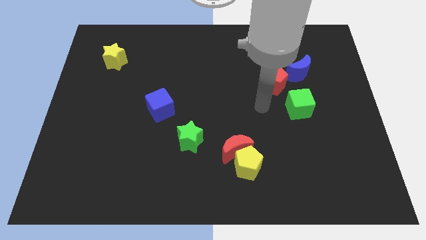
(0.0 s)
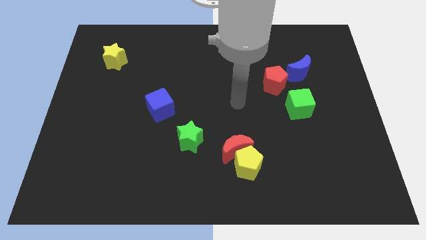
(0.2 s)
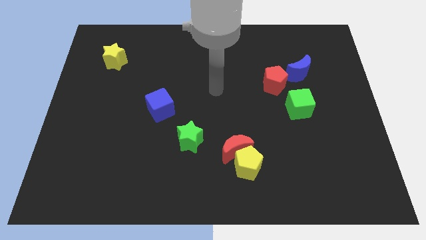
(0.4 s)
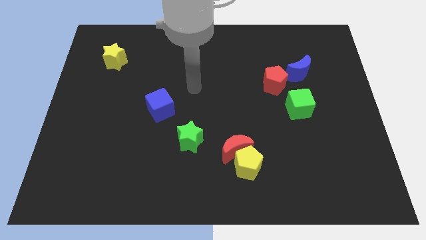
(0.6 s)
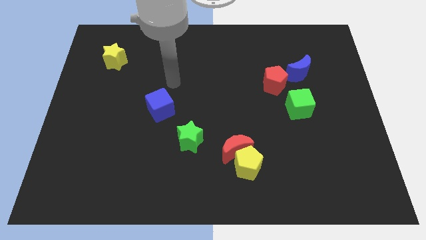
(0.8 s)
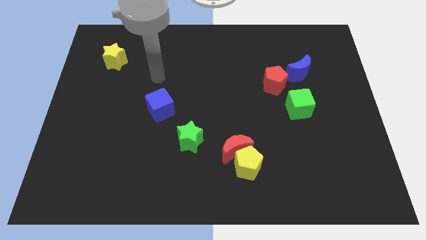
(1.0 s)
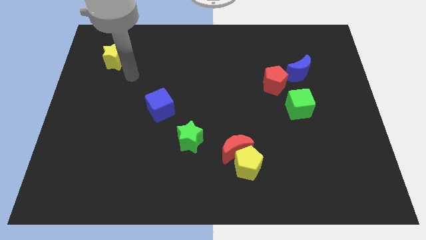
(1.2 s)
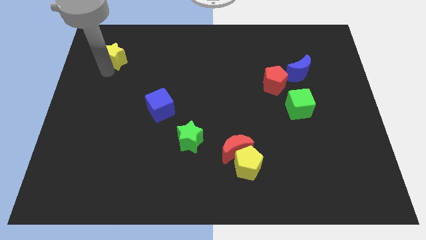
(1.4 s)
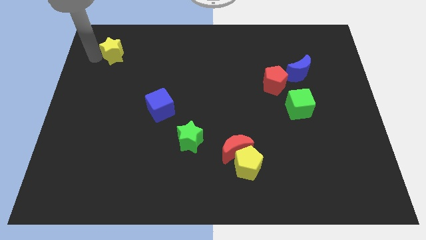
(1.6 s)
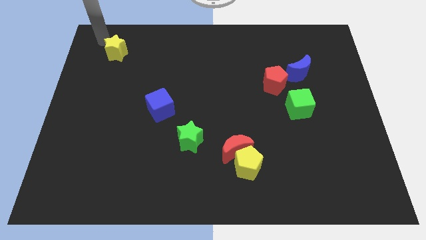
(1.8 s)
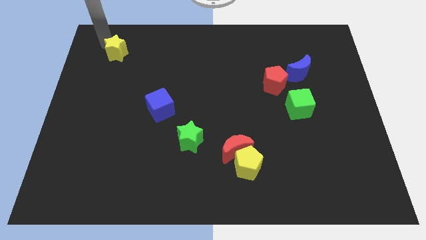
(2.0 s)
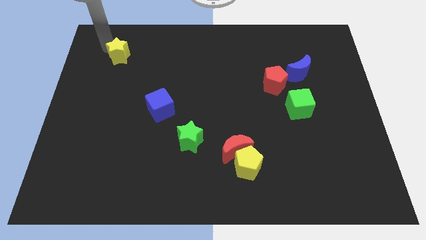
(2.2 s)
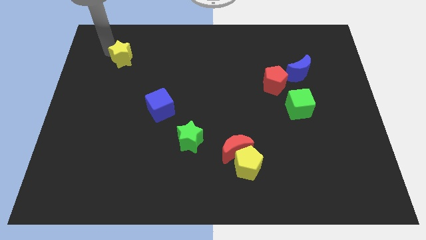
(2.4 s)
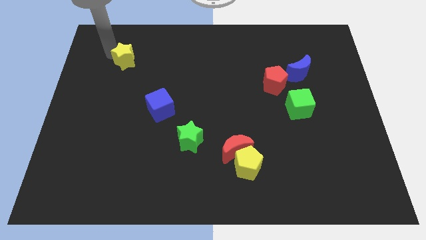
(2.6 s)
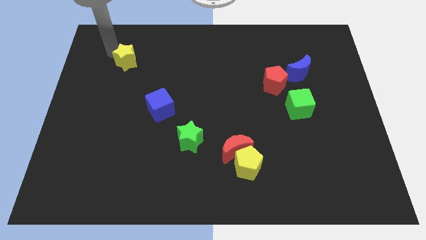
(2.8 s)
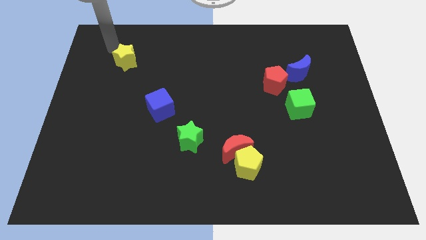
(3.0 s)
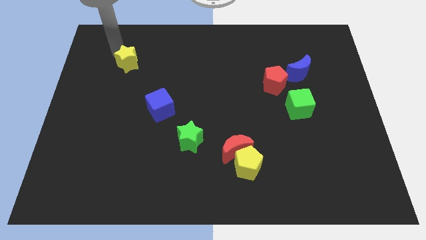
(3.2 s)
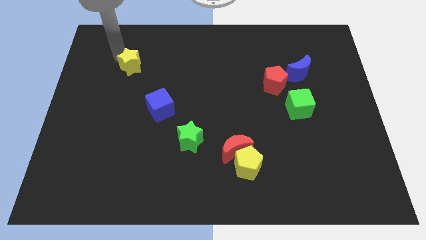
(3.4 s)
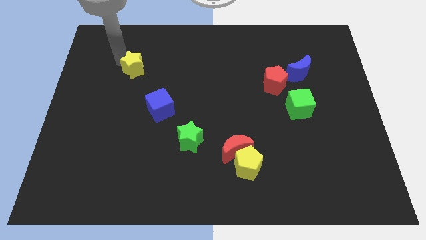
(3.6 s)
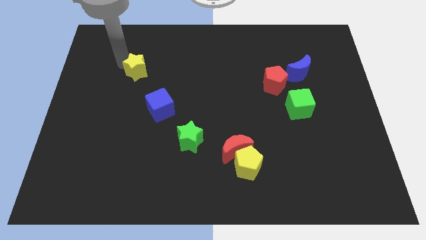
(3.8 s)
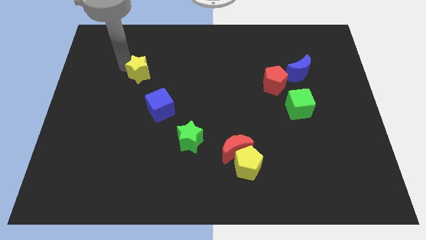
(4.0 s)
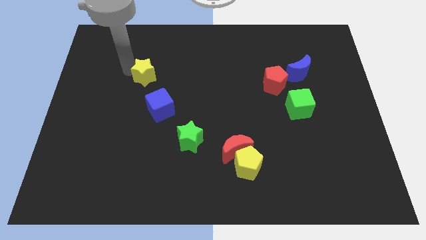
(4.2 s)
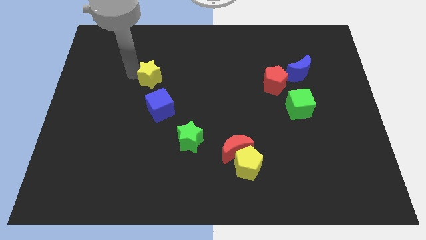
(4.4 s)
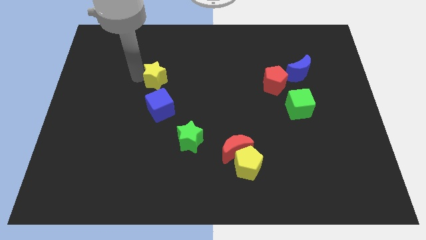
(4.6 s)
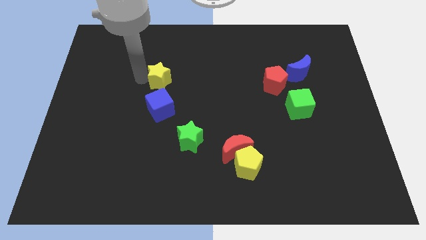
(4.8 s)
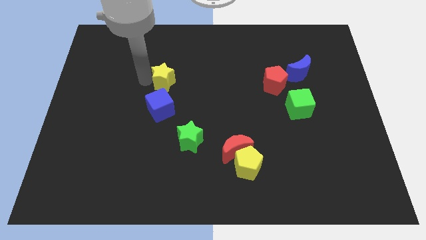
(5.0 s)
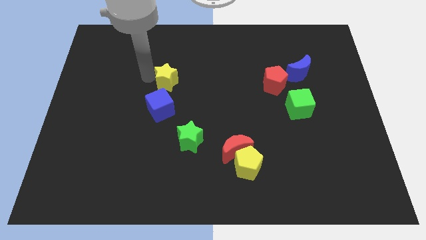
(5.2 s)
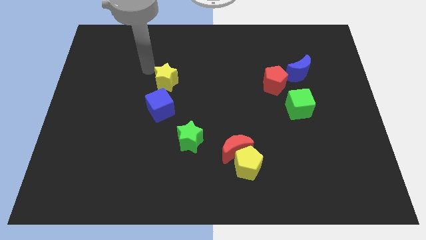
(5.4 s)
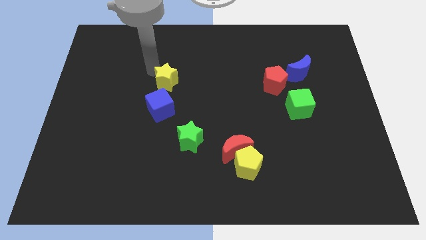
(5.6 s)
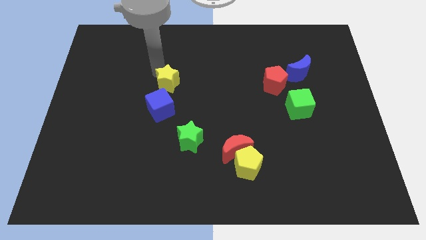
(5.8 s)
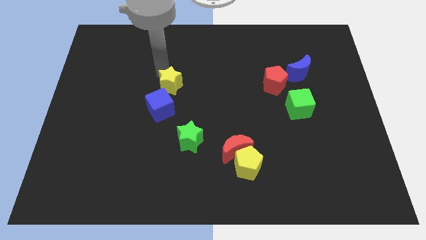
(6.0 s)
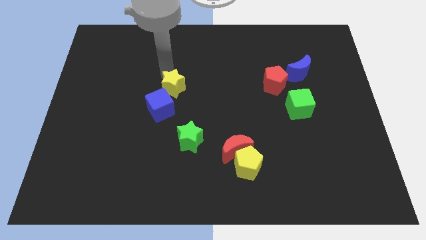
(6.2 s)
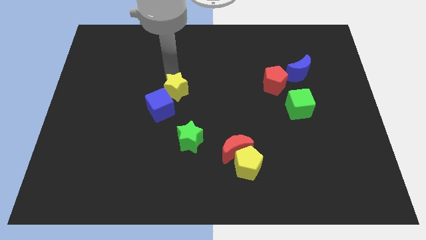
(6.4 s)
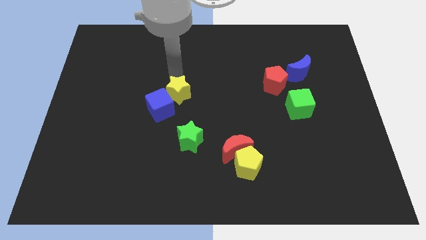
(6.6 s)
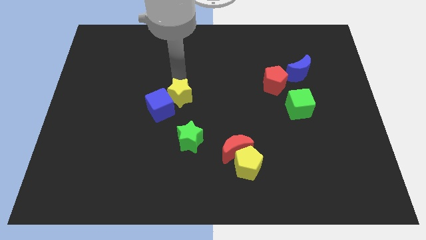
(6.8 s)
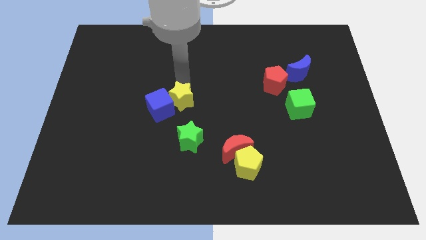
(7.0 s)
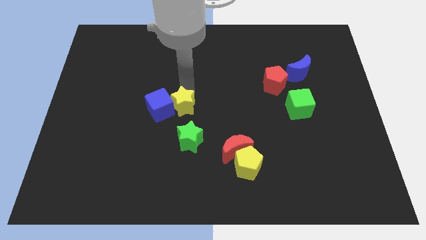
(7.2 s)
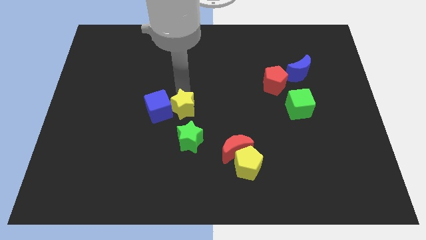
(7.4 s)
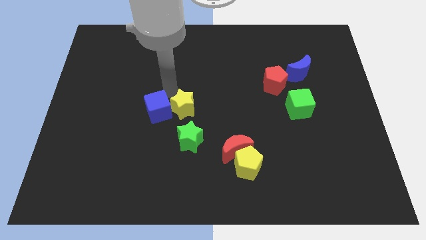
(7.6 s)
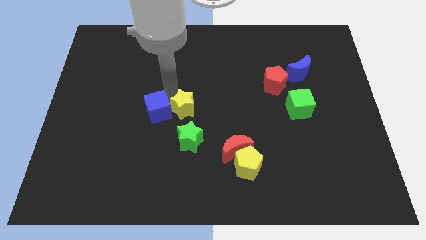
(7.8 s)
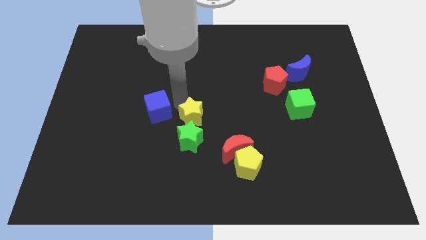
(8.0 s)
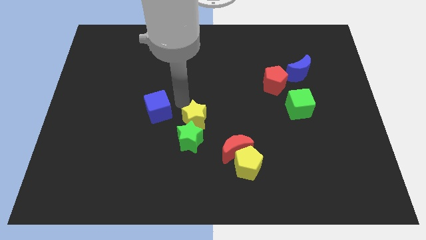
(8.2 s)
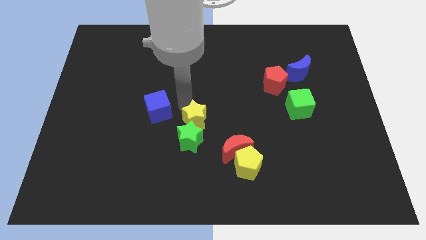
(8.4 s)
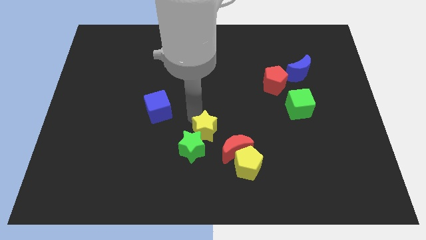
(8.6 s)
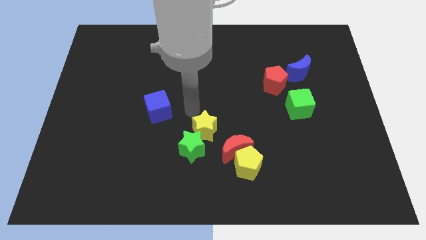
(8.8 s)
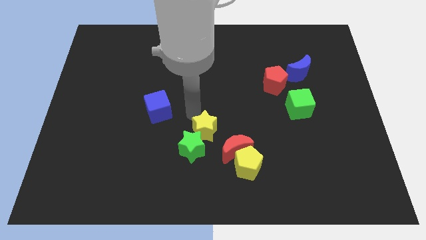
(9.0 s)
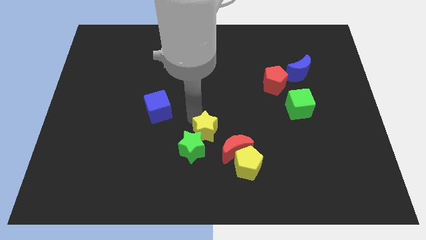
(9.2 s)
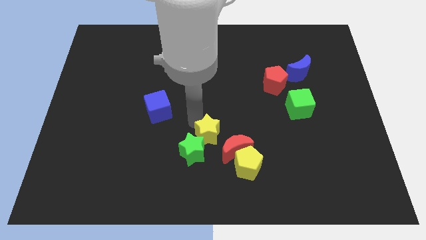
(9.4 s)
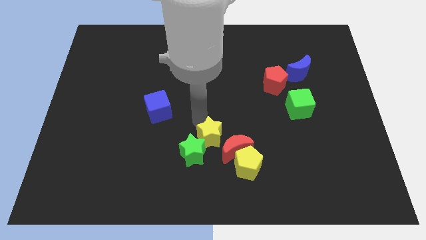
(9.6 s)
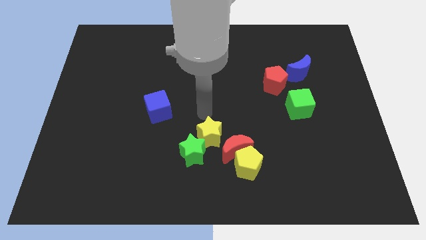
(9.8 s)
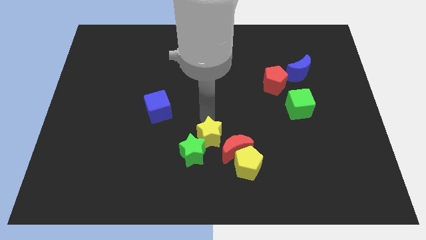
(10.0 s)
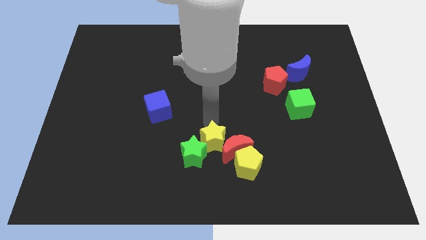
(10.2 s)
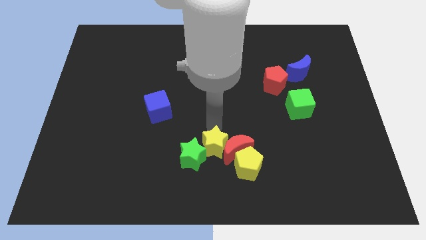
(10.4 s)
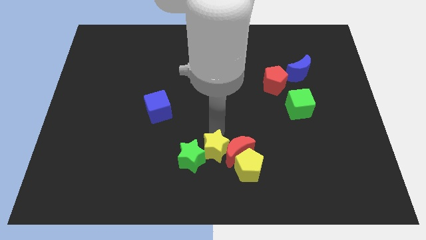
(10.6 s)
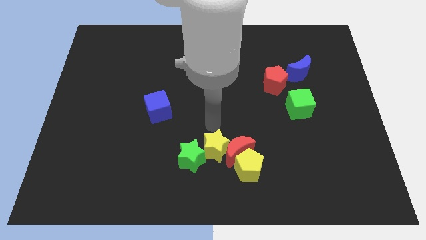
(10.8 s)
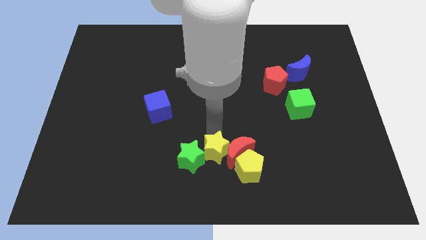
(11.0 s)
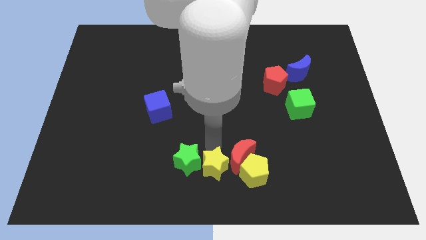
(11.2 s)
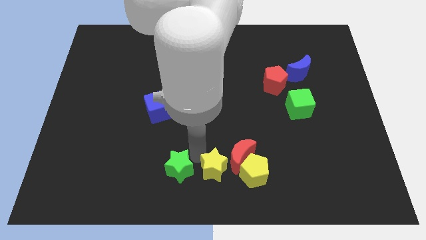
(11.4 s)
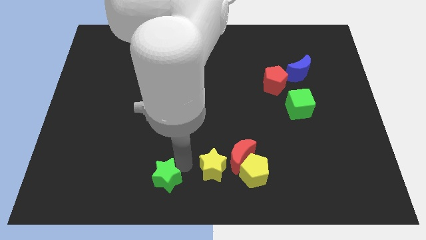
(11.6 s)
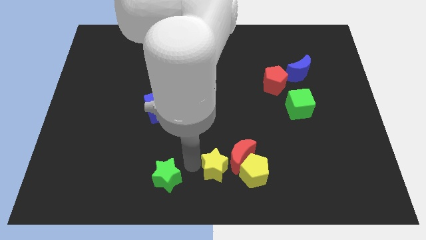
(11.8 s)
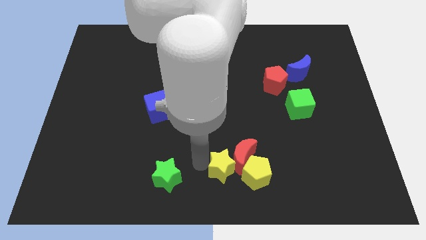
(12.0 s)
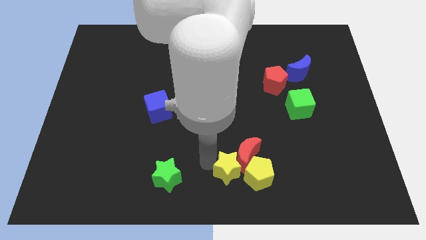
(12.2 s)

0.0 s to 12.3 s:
put the yellow star to the yellow pentagon

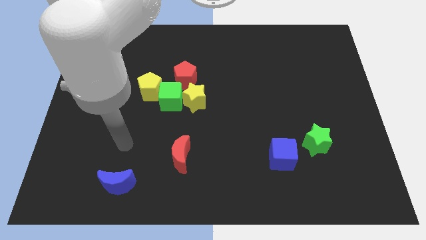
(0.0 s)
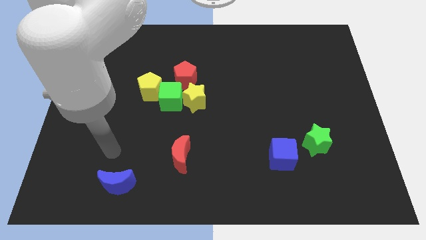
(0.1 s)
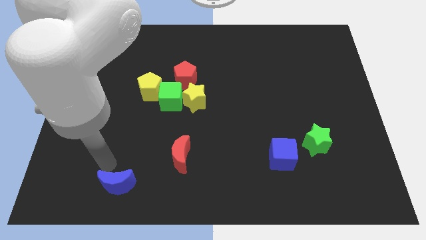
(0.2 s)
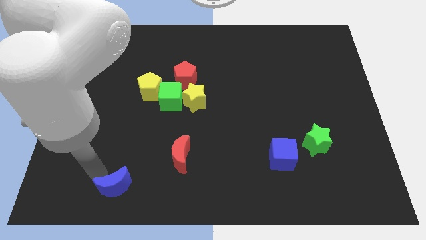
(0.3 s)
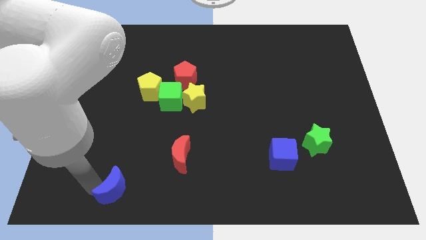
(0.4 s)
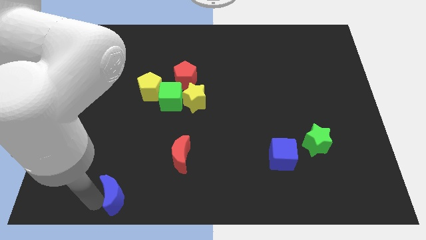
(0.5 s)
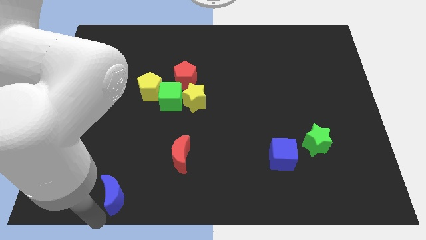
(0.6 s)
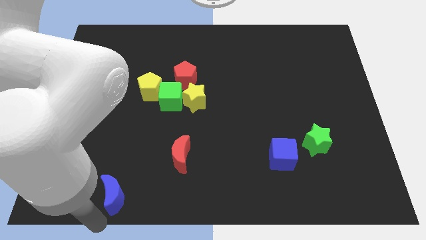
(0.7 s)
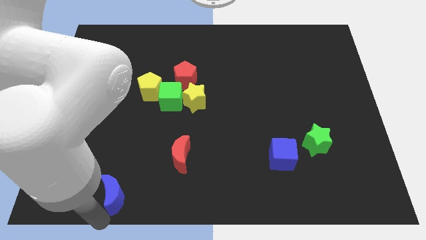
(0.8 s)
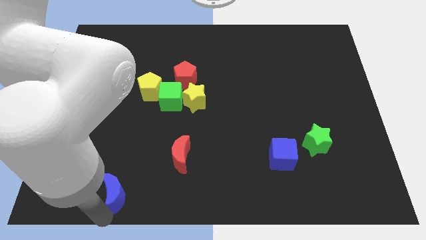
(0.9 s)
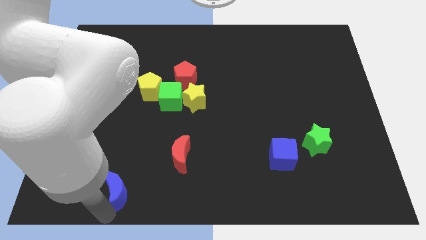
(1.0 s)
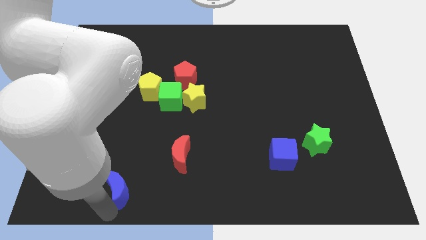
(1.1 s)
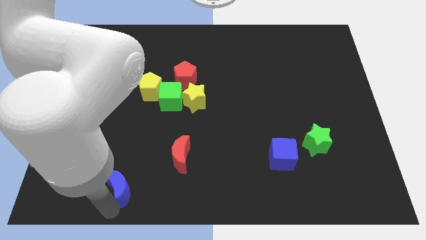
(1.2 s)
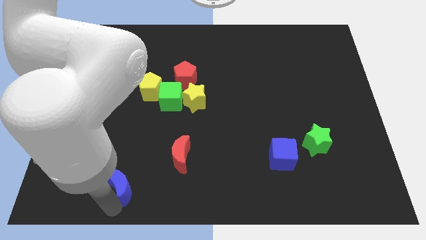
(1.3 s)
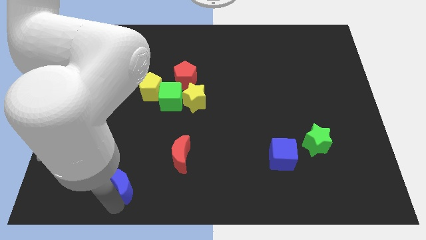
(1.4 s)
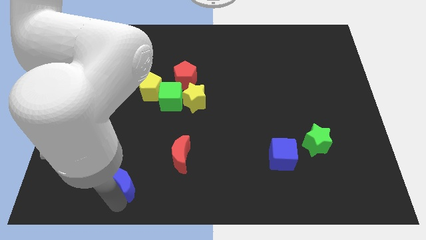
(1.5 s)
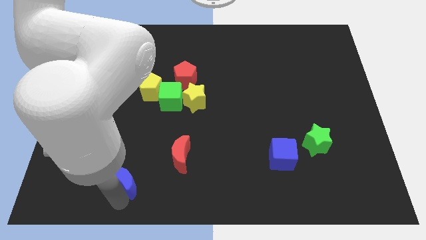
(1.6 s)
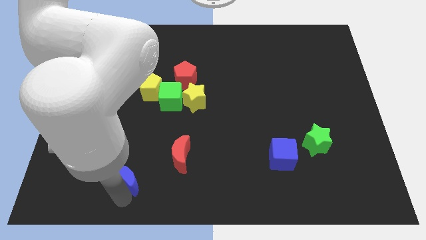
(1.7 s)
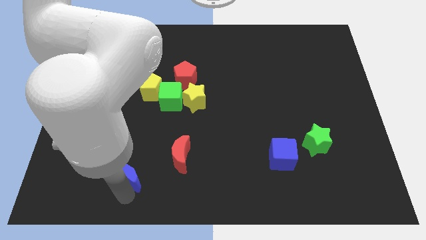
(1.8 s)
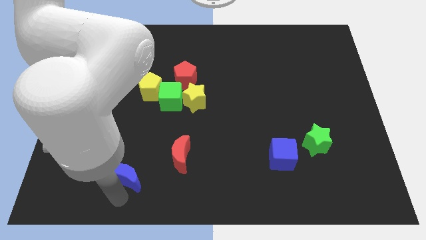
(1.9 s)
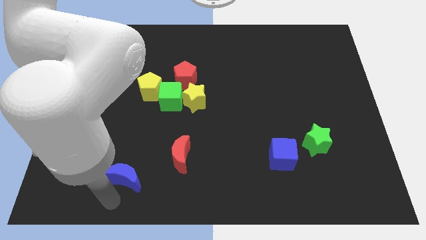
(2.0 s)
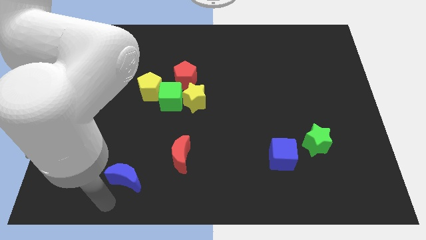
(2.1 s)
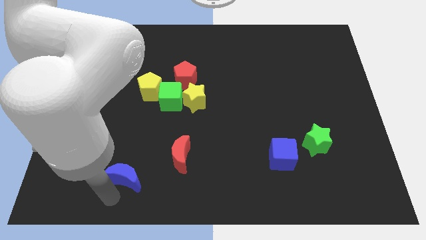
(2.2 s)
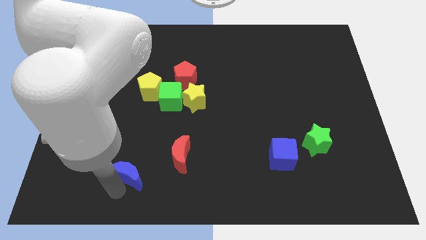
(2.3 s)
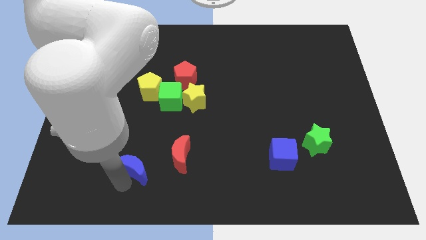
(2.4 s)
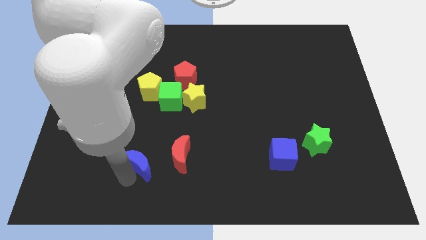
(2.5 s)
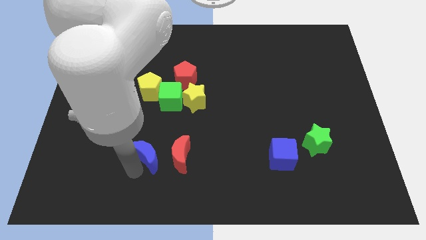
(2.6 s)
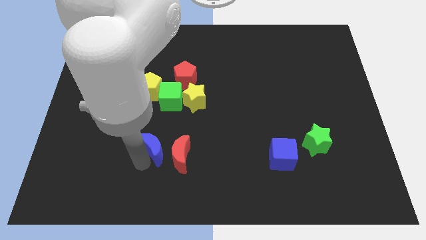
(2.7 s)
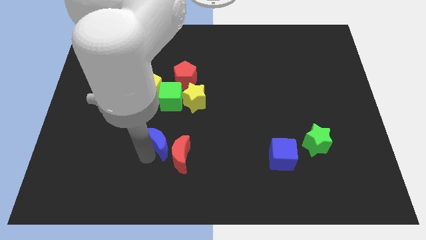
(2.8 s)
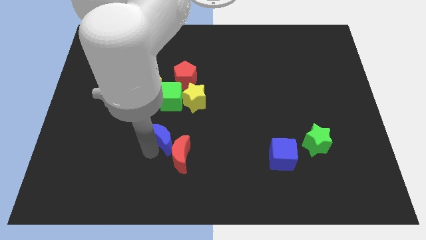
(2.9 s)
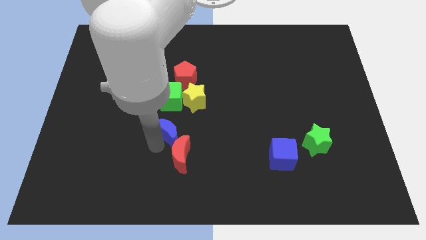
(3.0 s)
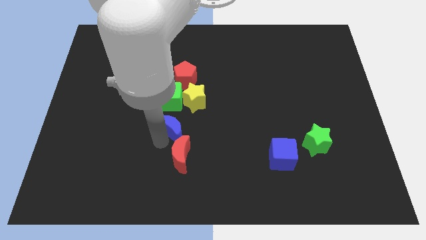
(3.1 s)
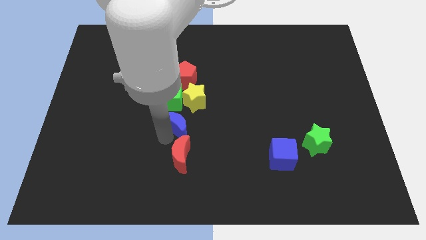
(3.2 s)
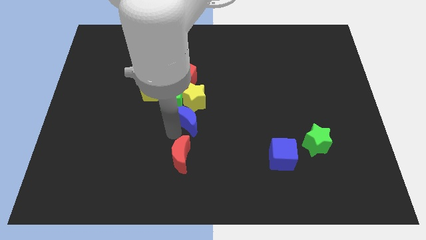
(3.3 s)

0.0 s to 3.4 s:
slide the blue moon next to the yellow star
